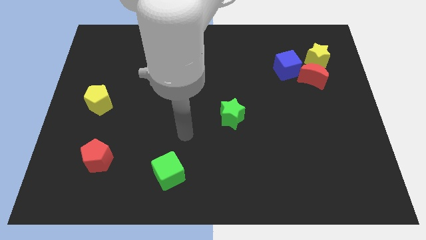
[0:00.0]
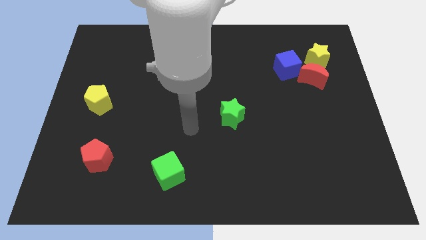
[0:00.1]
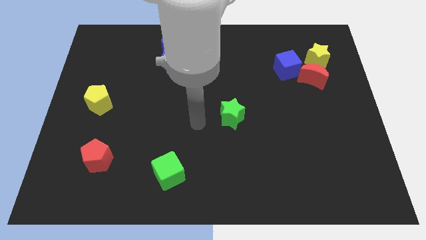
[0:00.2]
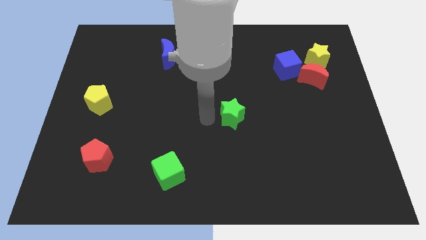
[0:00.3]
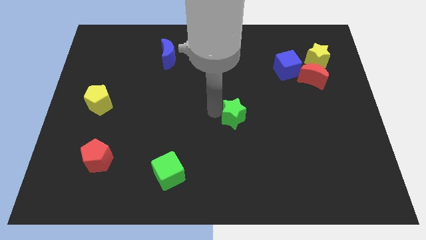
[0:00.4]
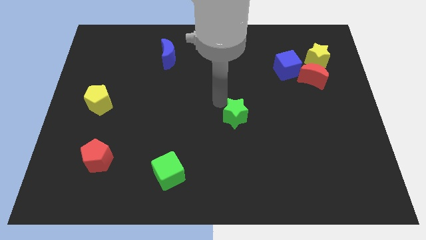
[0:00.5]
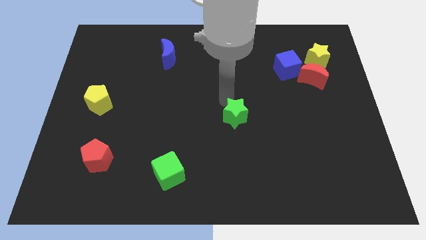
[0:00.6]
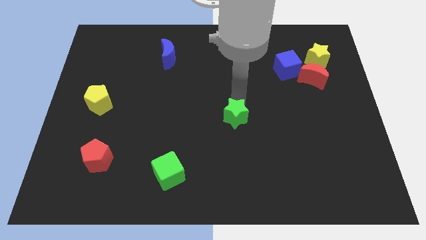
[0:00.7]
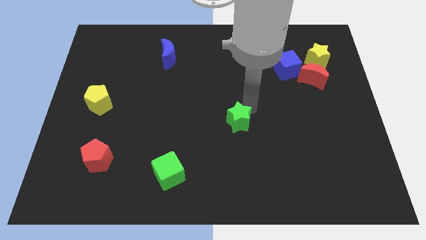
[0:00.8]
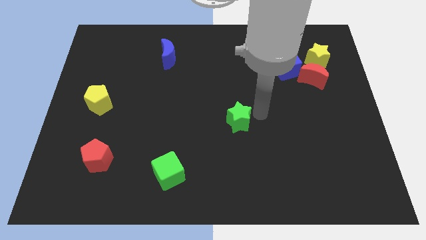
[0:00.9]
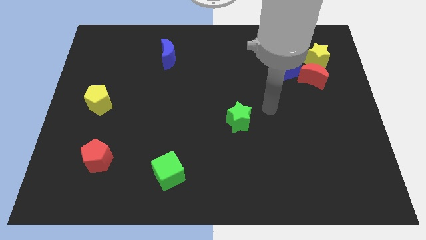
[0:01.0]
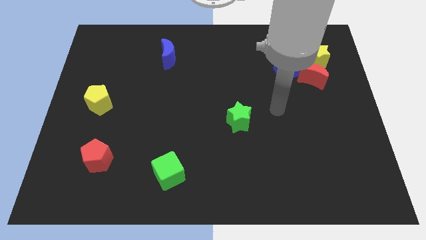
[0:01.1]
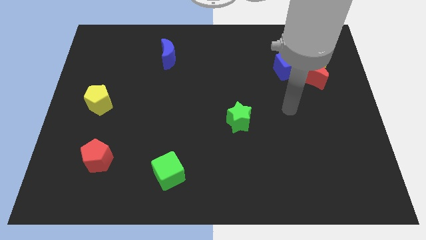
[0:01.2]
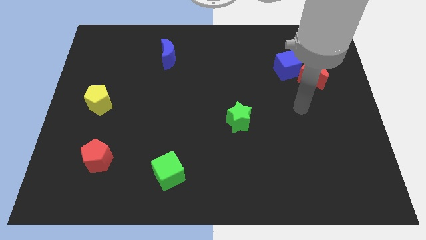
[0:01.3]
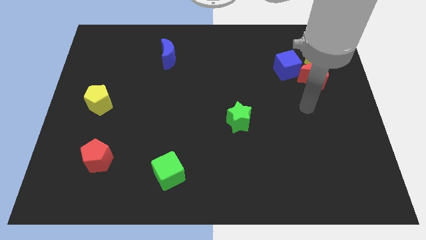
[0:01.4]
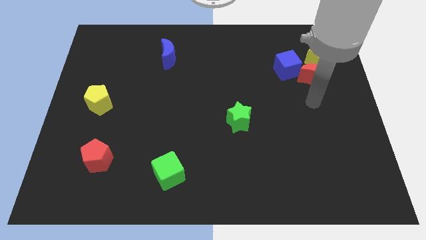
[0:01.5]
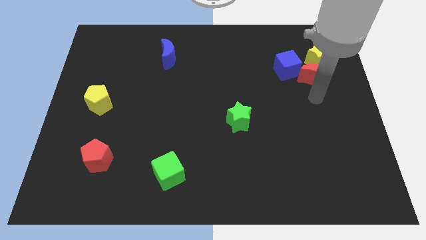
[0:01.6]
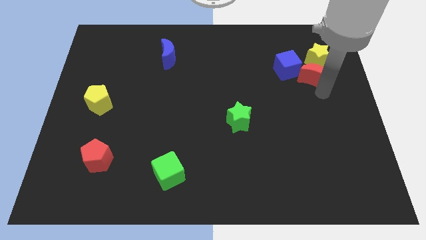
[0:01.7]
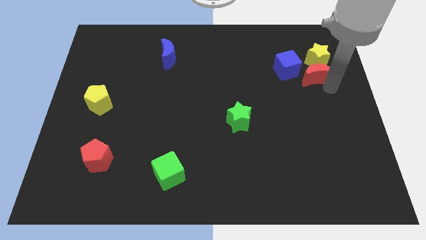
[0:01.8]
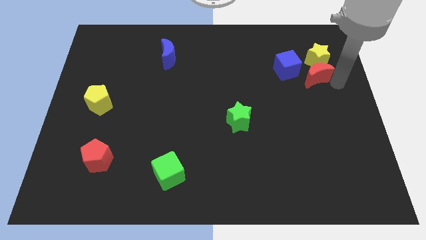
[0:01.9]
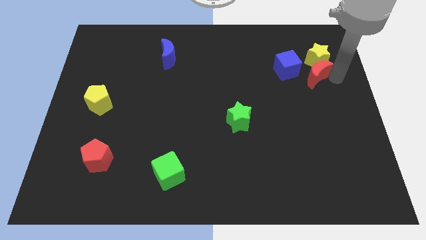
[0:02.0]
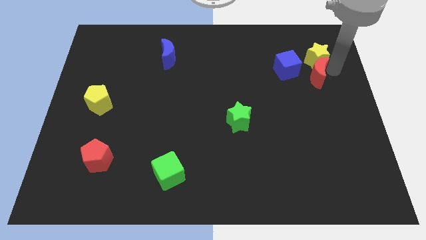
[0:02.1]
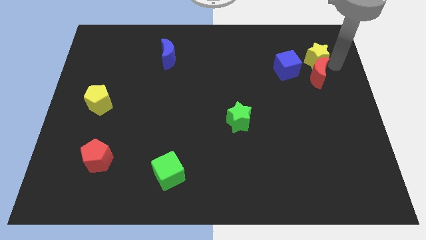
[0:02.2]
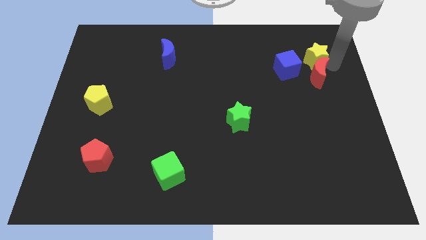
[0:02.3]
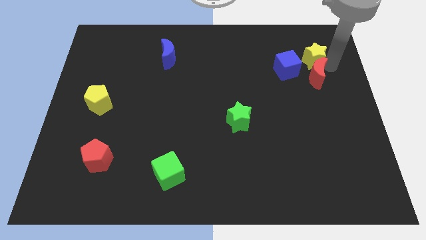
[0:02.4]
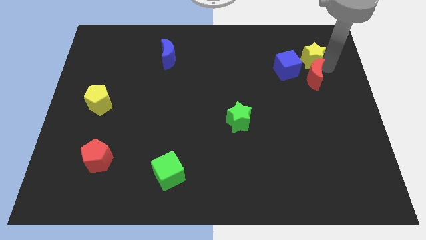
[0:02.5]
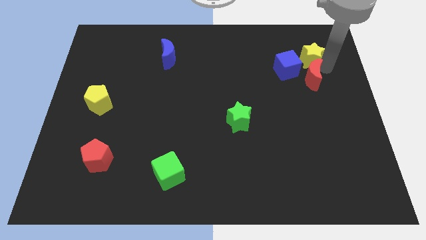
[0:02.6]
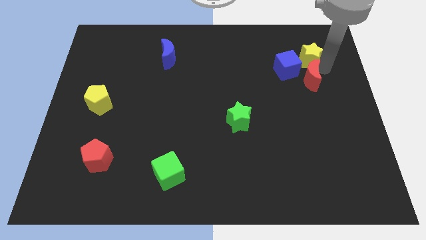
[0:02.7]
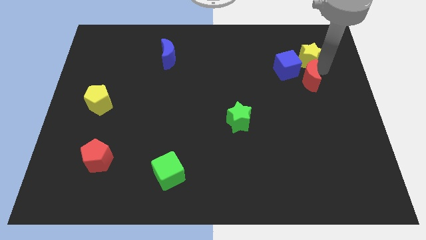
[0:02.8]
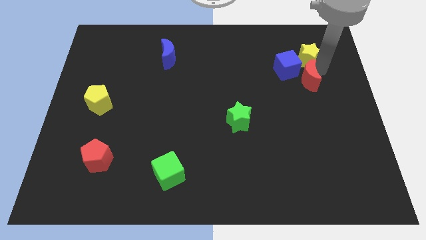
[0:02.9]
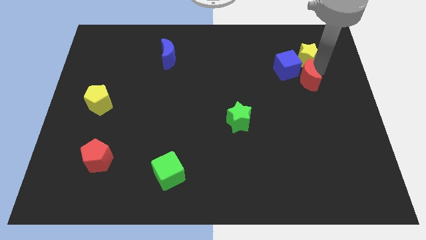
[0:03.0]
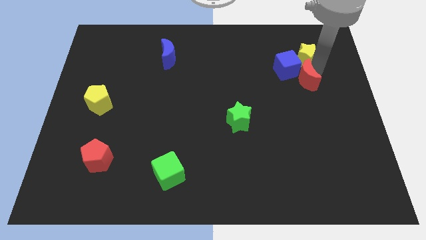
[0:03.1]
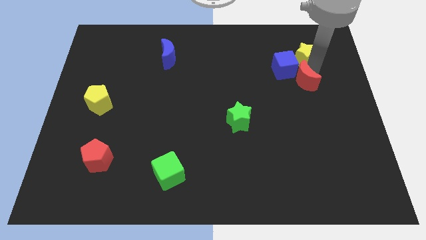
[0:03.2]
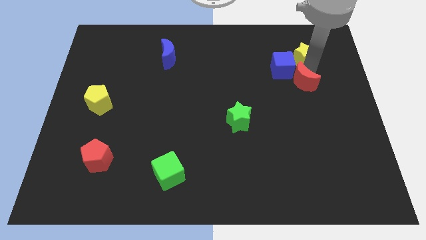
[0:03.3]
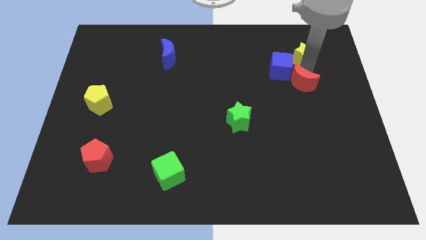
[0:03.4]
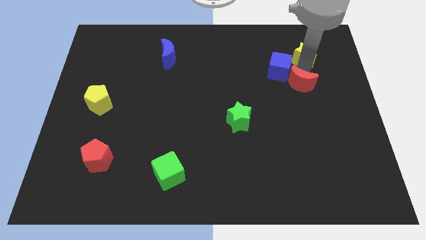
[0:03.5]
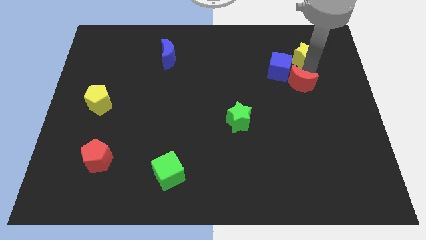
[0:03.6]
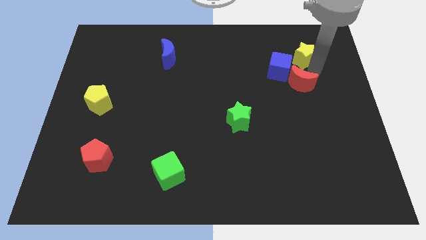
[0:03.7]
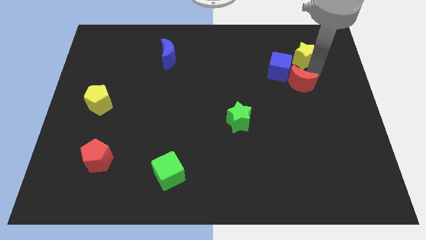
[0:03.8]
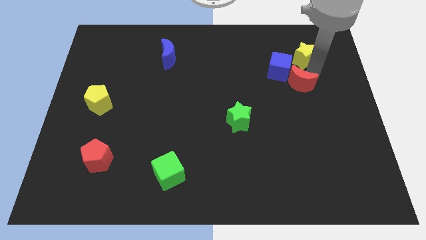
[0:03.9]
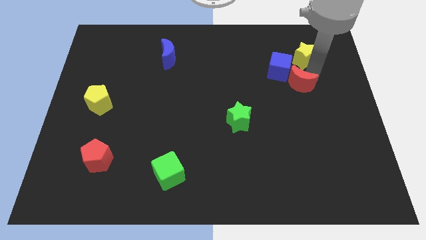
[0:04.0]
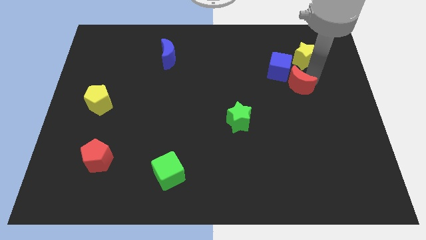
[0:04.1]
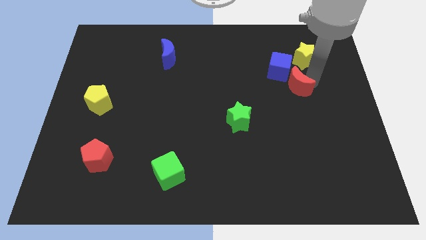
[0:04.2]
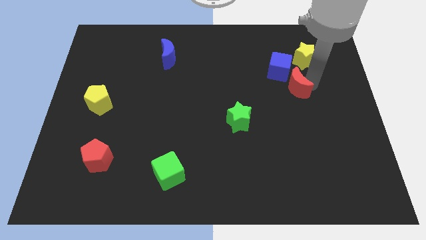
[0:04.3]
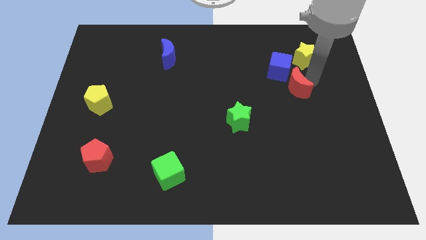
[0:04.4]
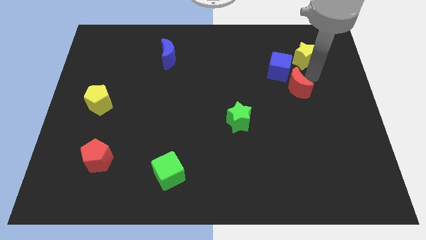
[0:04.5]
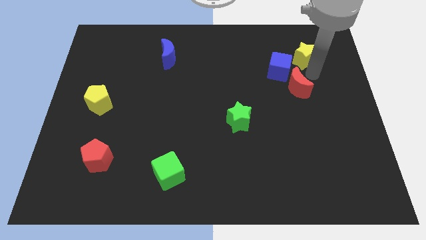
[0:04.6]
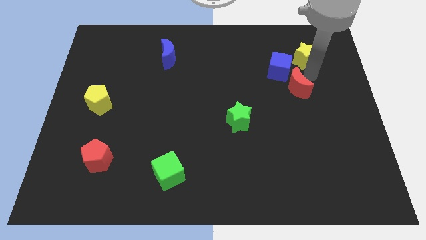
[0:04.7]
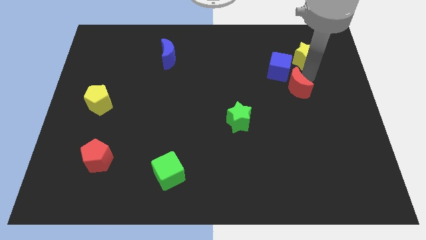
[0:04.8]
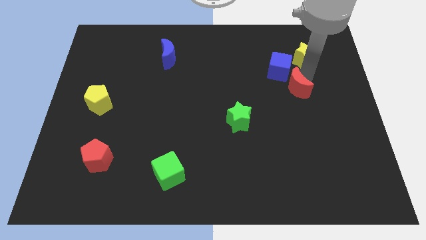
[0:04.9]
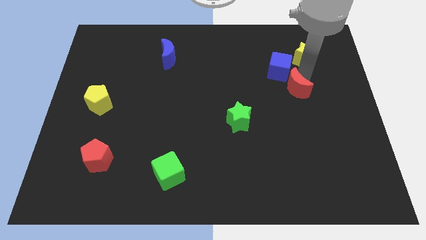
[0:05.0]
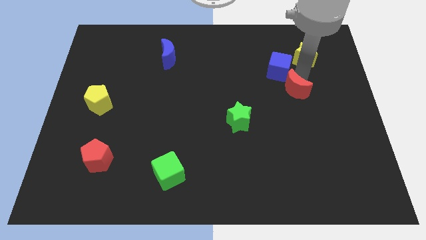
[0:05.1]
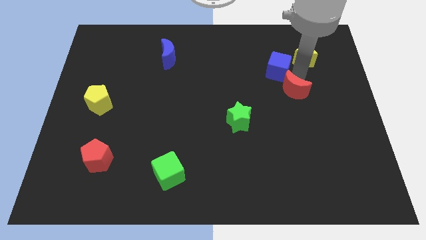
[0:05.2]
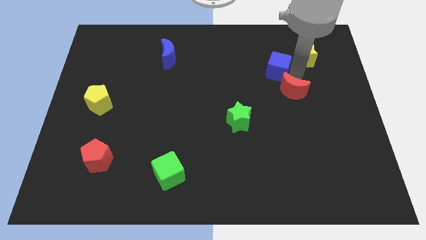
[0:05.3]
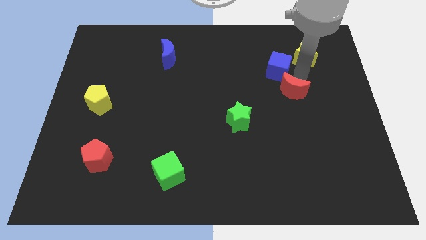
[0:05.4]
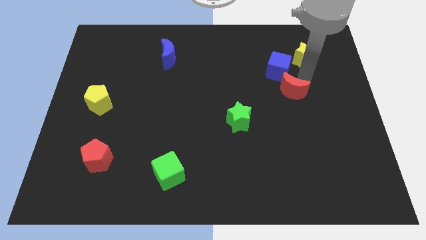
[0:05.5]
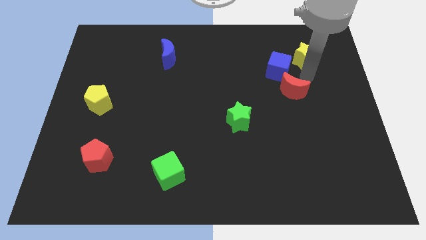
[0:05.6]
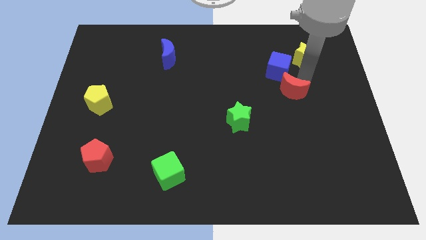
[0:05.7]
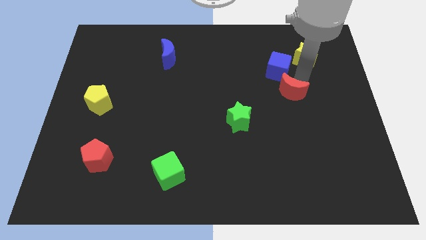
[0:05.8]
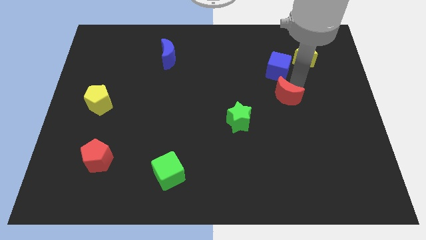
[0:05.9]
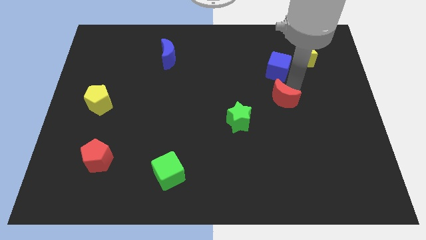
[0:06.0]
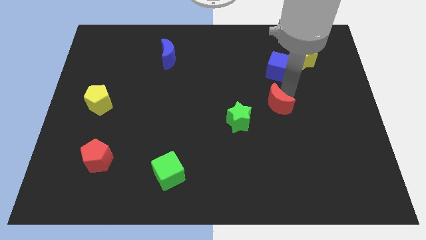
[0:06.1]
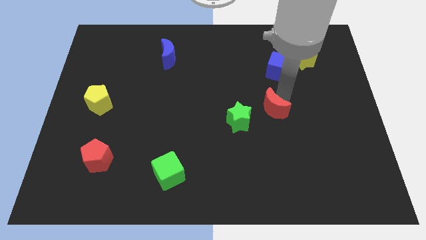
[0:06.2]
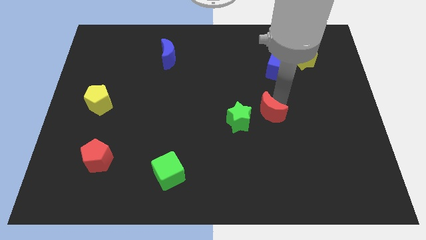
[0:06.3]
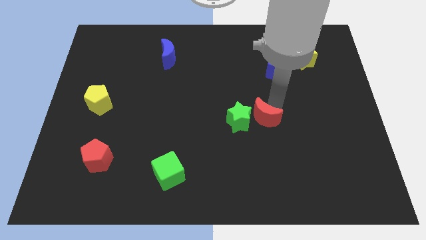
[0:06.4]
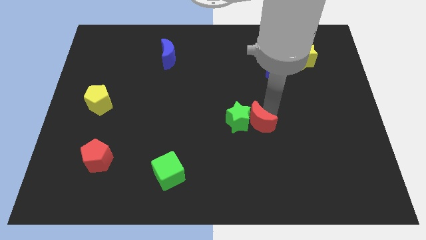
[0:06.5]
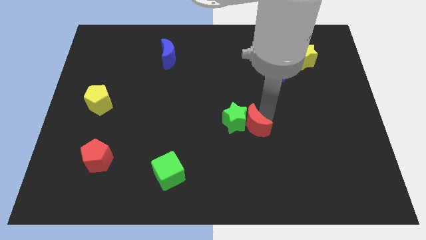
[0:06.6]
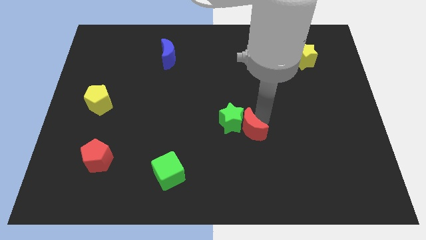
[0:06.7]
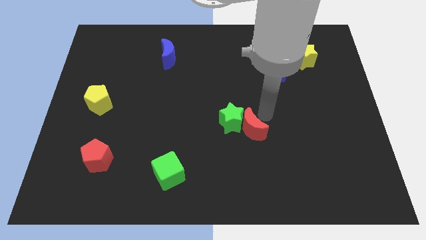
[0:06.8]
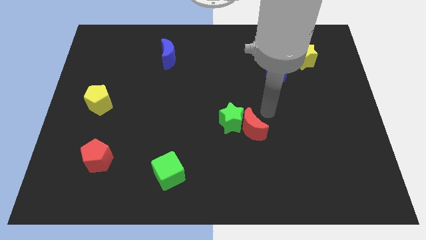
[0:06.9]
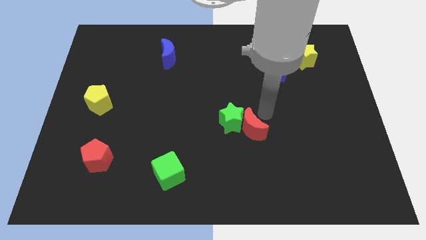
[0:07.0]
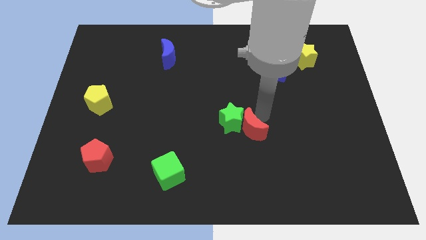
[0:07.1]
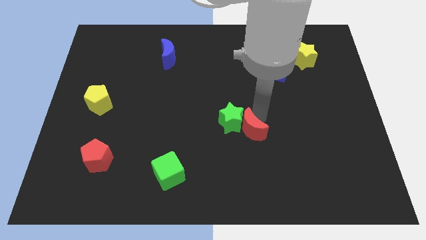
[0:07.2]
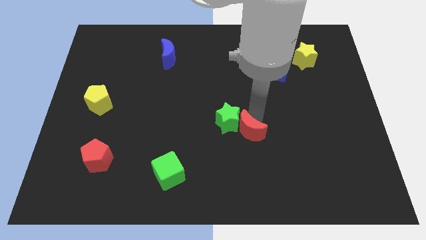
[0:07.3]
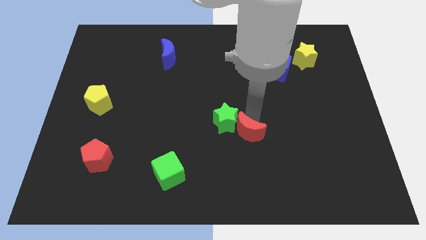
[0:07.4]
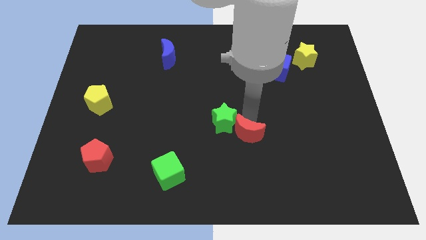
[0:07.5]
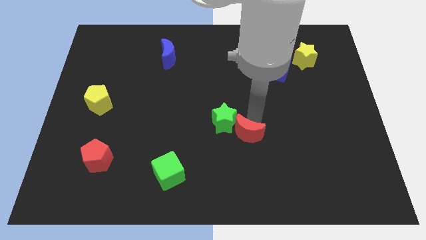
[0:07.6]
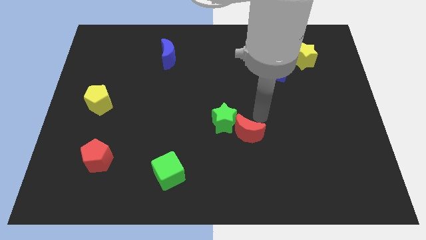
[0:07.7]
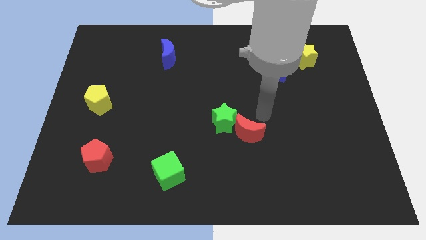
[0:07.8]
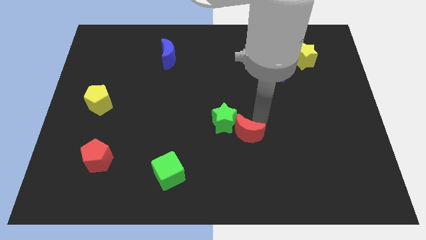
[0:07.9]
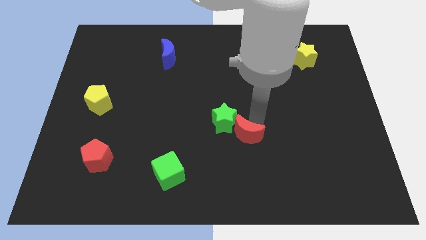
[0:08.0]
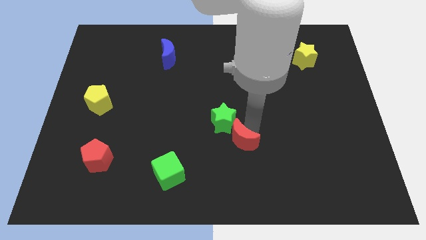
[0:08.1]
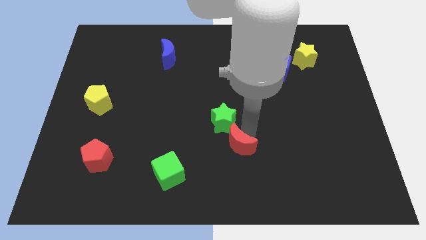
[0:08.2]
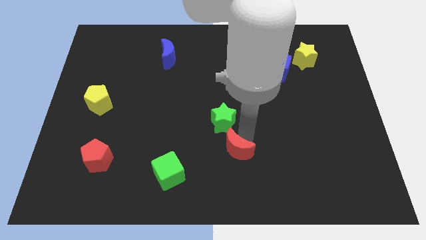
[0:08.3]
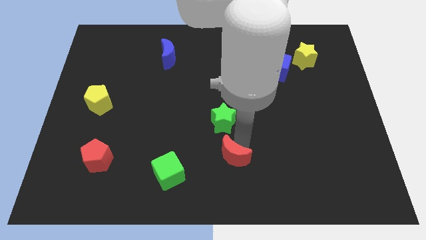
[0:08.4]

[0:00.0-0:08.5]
put the red moon to the right of the green cube
